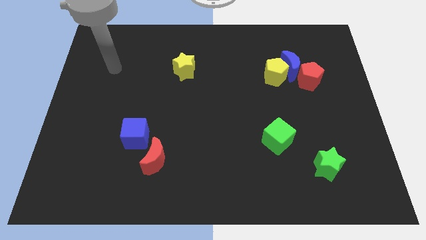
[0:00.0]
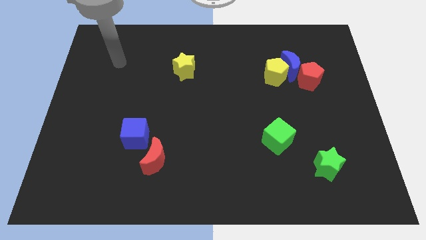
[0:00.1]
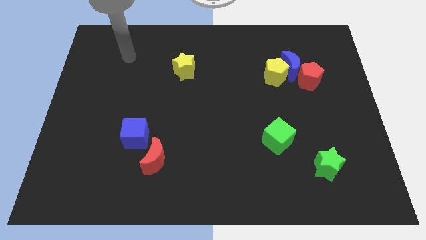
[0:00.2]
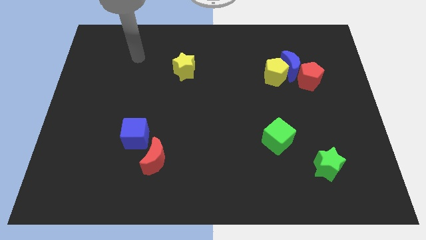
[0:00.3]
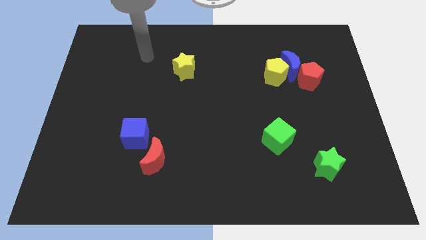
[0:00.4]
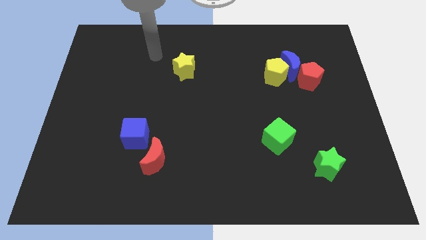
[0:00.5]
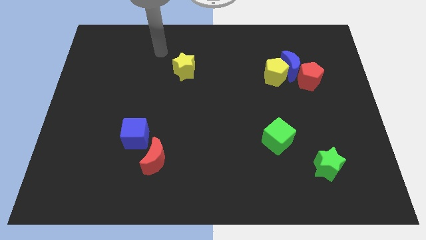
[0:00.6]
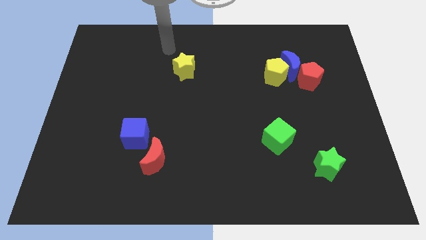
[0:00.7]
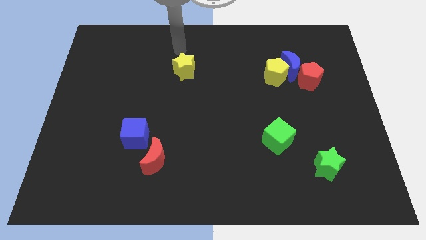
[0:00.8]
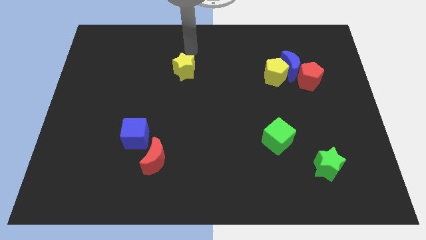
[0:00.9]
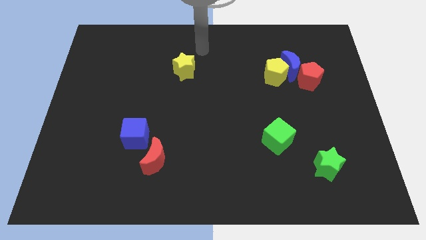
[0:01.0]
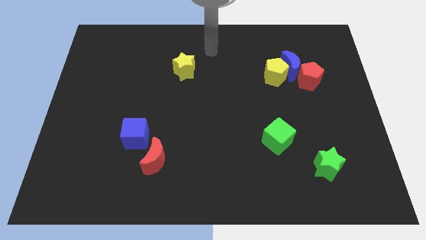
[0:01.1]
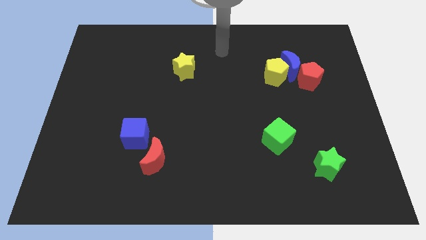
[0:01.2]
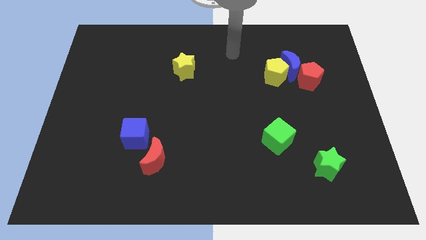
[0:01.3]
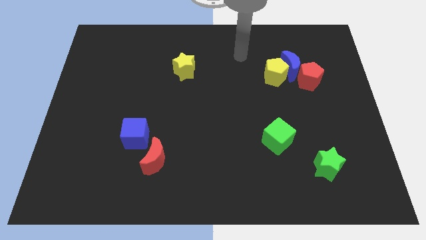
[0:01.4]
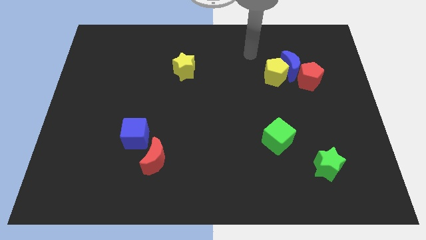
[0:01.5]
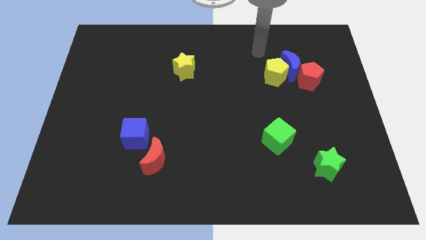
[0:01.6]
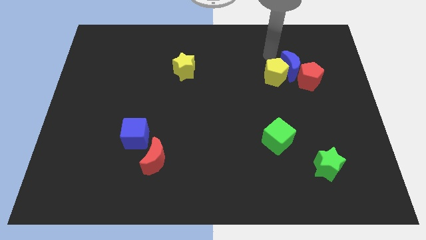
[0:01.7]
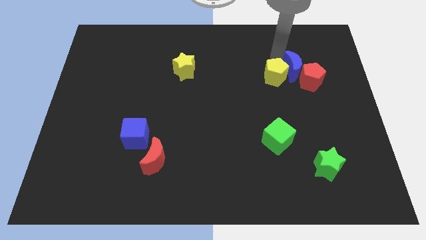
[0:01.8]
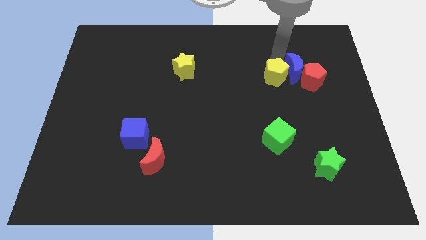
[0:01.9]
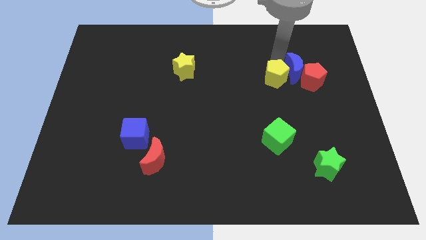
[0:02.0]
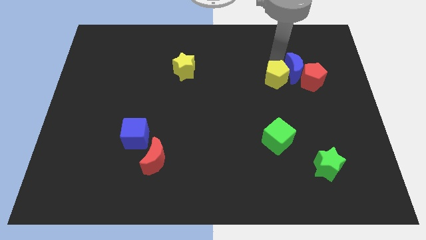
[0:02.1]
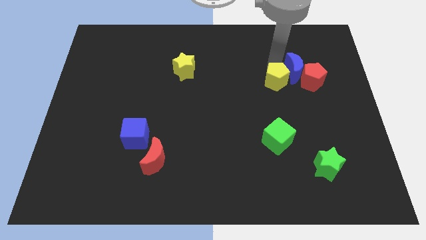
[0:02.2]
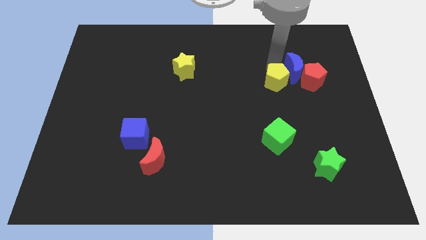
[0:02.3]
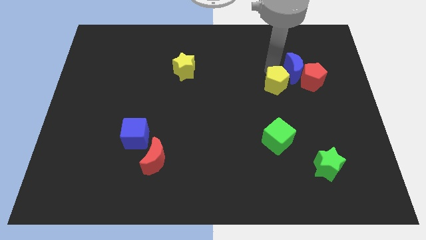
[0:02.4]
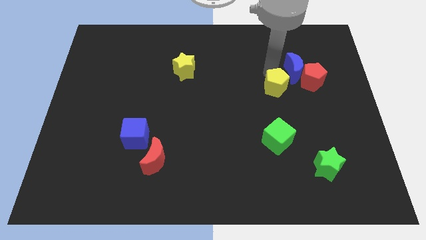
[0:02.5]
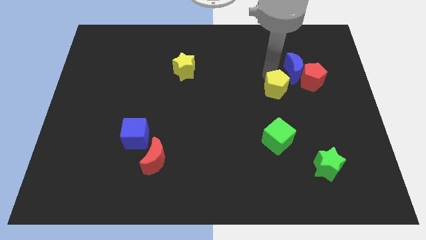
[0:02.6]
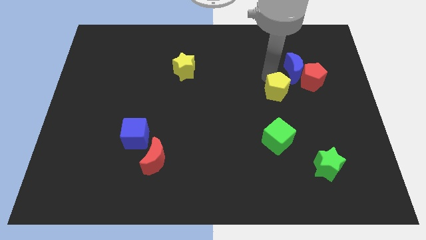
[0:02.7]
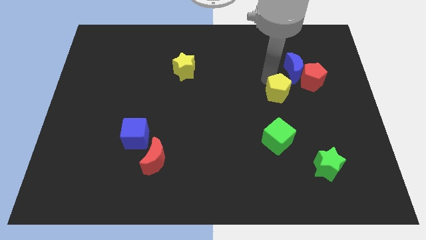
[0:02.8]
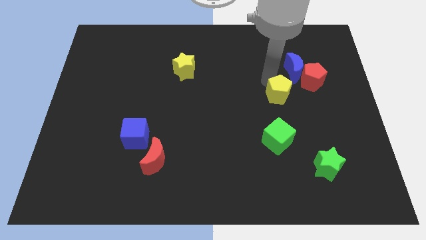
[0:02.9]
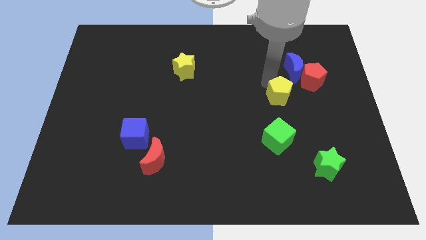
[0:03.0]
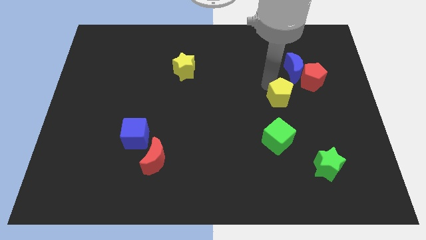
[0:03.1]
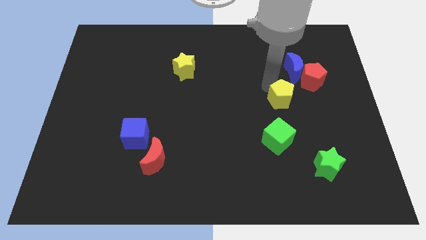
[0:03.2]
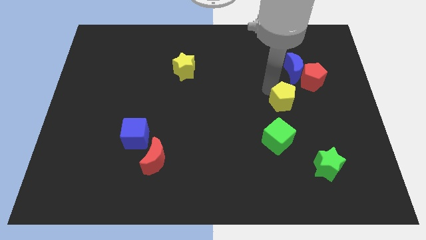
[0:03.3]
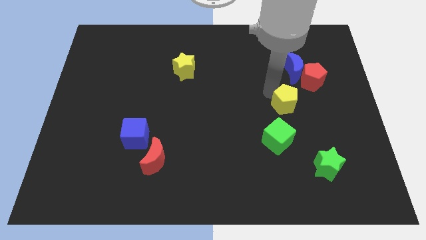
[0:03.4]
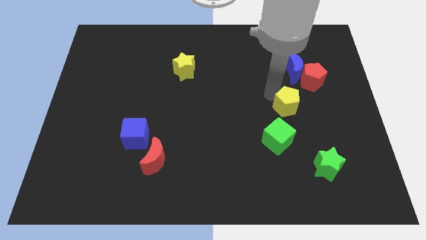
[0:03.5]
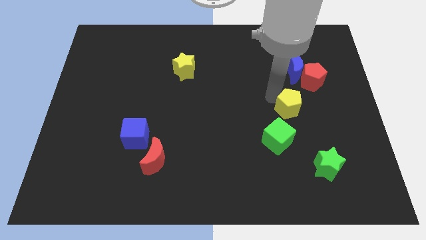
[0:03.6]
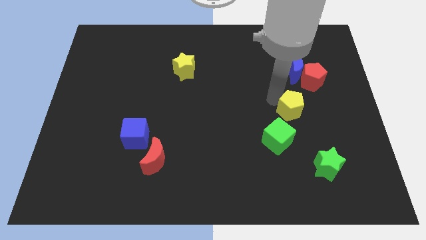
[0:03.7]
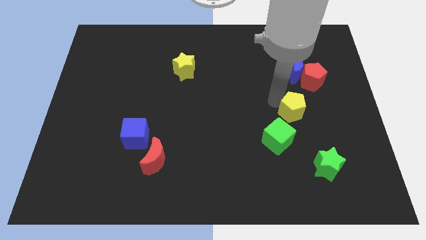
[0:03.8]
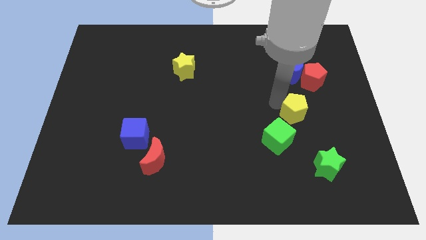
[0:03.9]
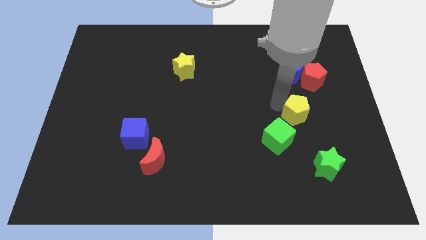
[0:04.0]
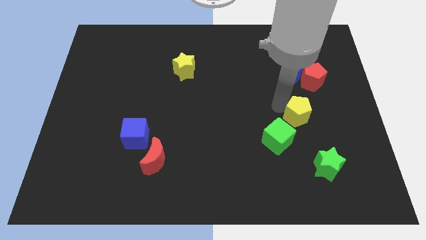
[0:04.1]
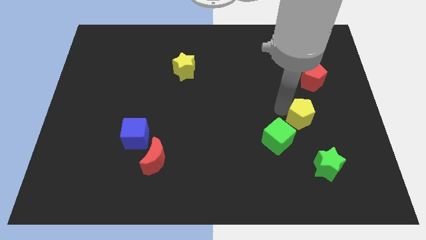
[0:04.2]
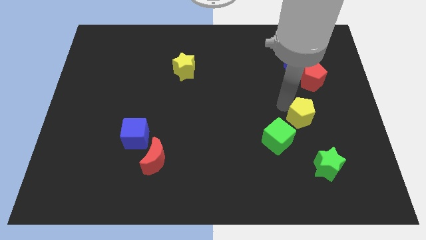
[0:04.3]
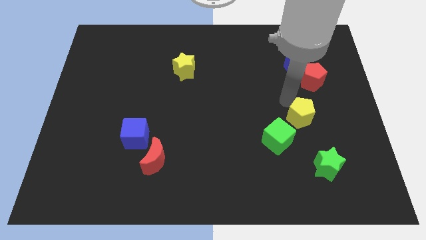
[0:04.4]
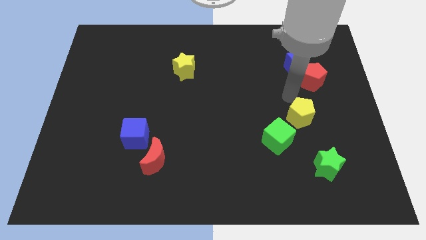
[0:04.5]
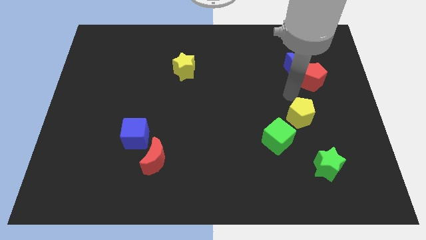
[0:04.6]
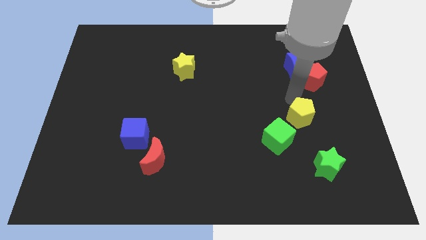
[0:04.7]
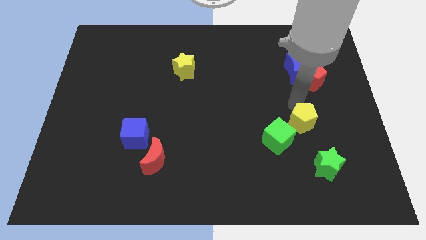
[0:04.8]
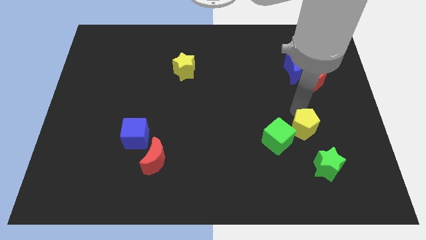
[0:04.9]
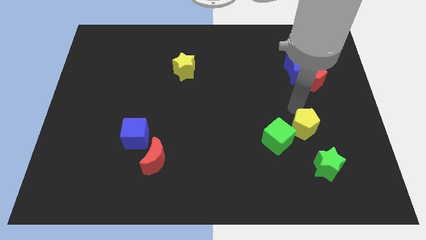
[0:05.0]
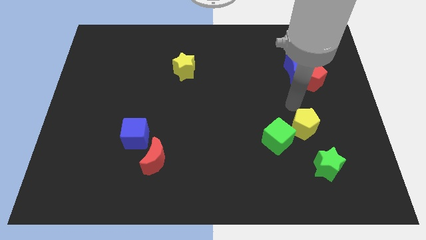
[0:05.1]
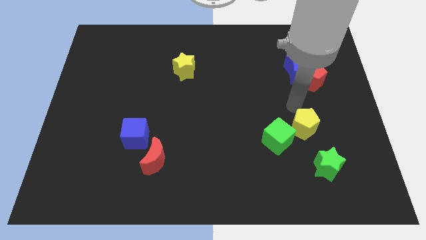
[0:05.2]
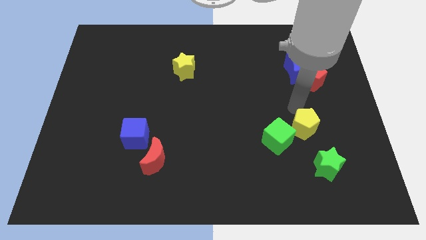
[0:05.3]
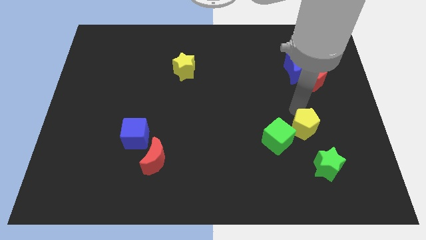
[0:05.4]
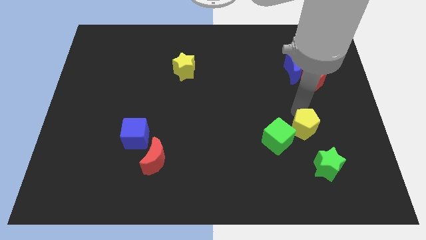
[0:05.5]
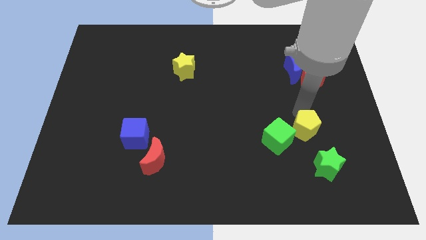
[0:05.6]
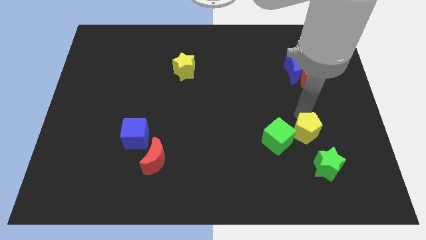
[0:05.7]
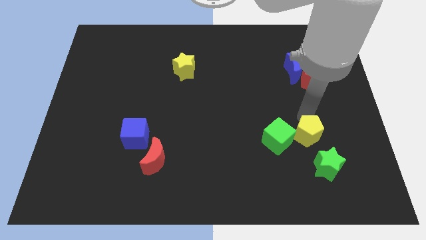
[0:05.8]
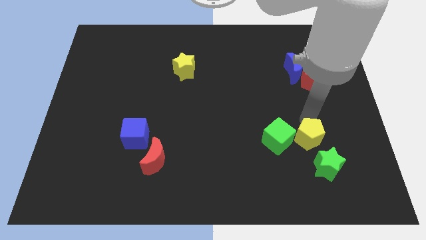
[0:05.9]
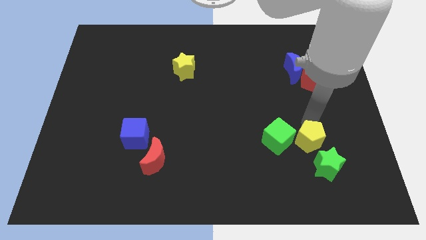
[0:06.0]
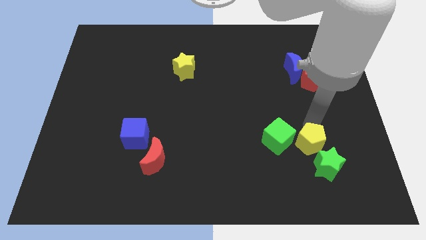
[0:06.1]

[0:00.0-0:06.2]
move the yellow pentagon close to the green star
